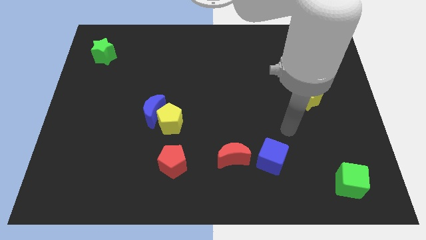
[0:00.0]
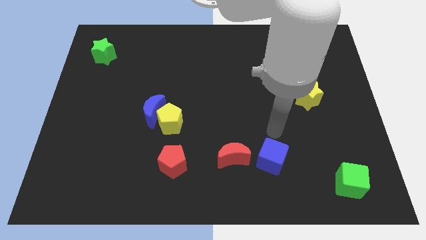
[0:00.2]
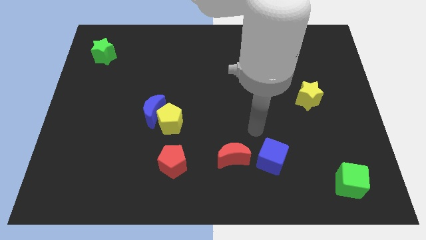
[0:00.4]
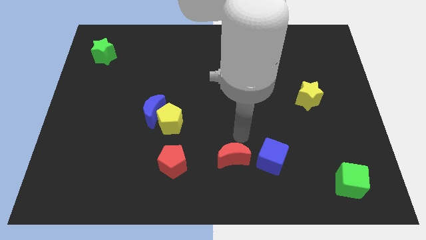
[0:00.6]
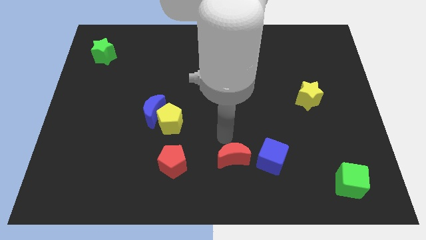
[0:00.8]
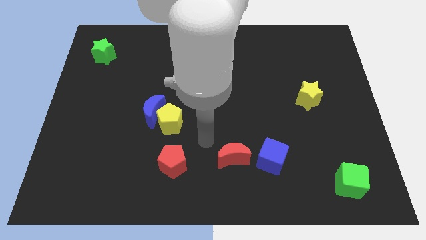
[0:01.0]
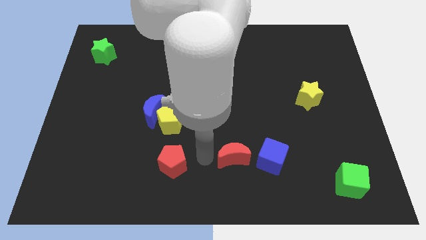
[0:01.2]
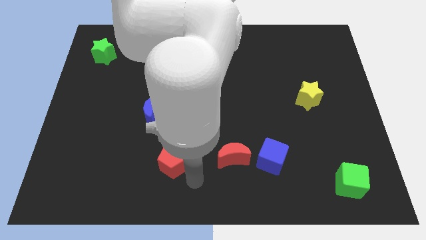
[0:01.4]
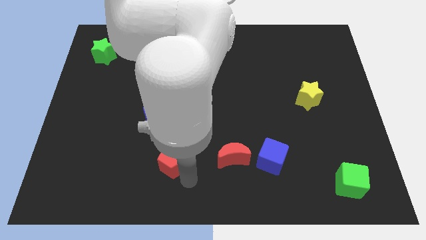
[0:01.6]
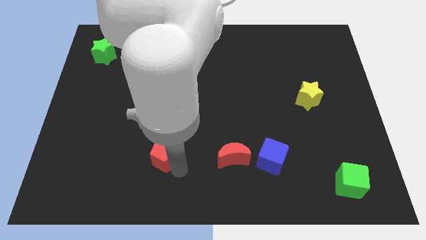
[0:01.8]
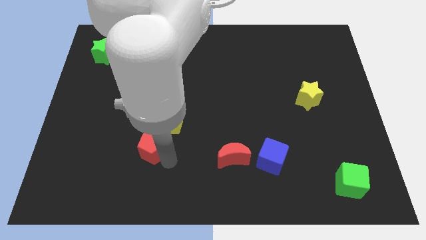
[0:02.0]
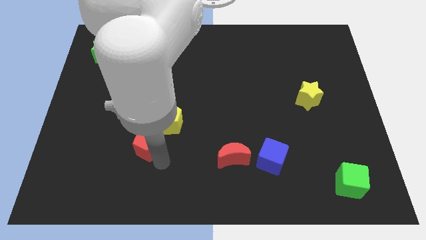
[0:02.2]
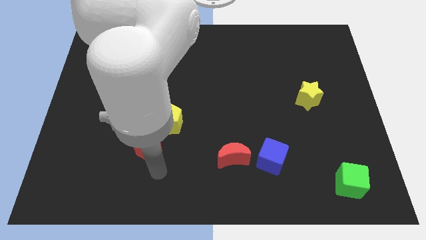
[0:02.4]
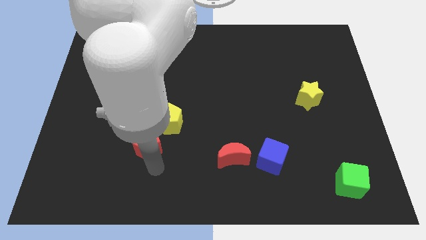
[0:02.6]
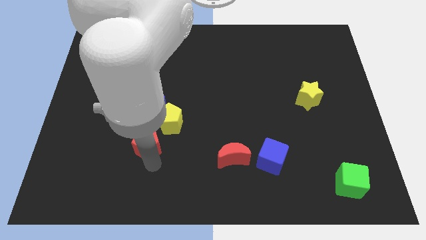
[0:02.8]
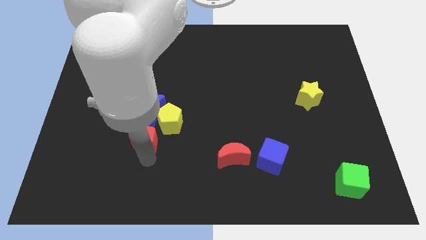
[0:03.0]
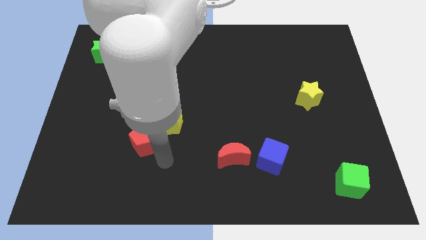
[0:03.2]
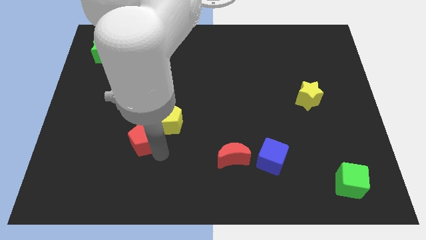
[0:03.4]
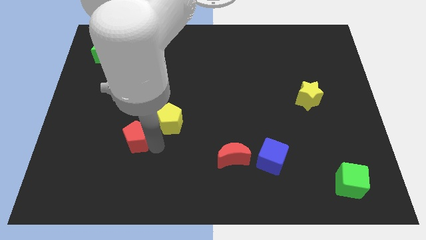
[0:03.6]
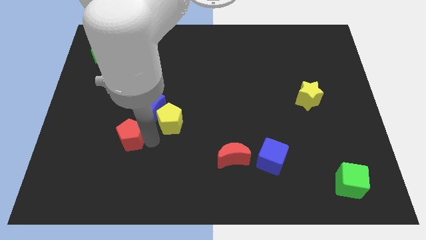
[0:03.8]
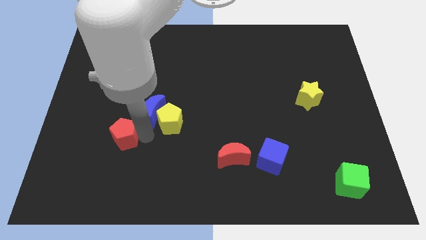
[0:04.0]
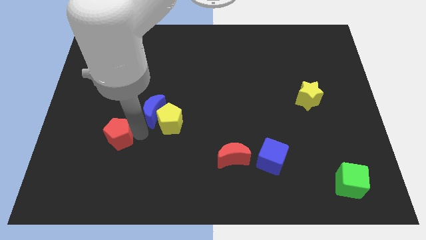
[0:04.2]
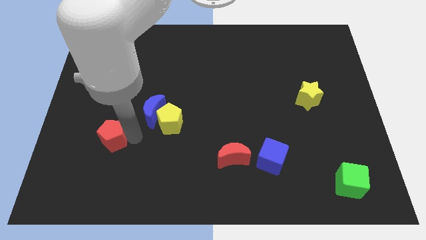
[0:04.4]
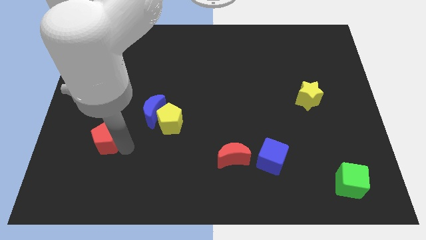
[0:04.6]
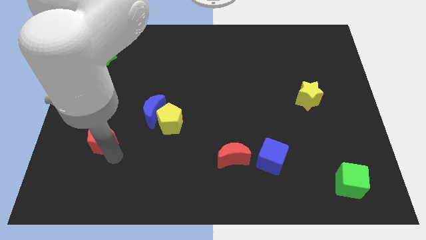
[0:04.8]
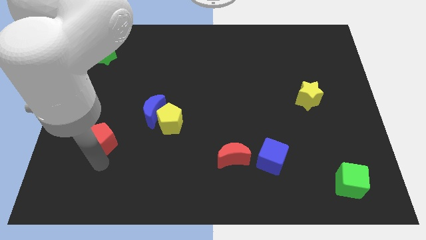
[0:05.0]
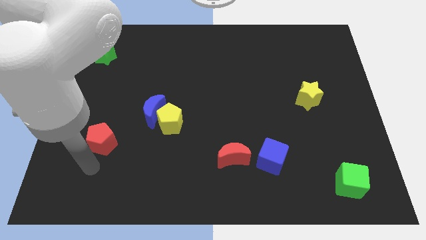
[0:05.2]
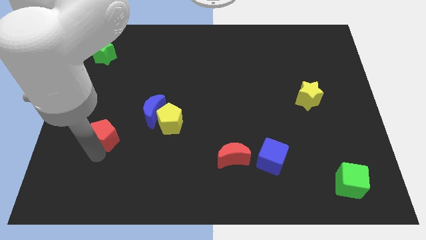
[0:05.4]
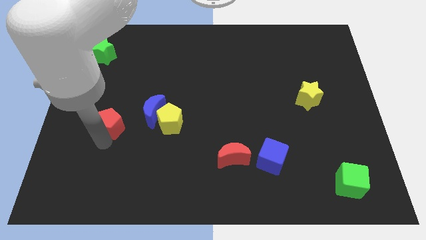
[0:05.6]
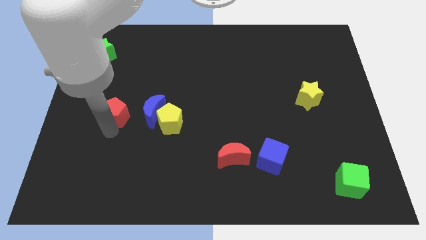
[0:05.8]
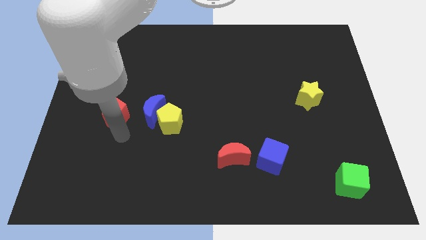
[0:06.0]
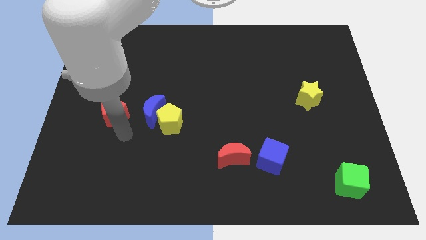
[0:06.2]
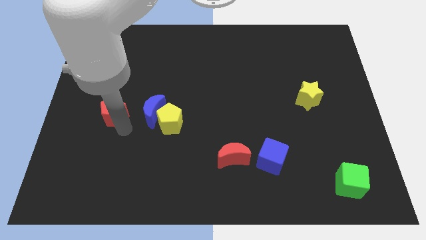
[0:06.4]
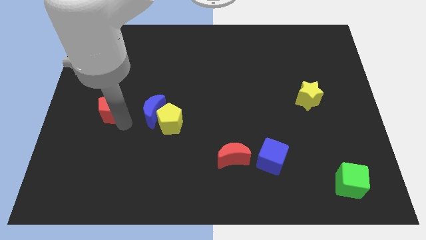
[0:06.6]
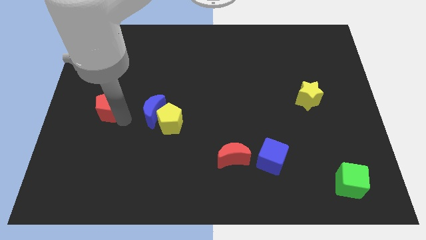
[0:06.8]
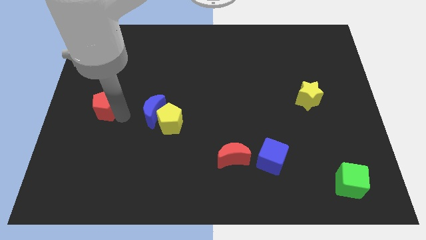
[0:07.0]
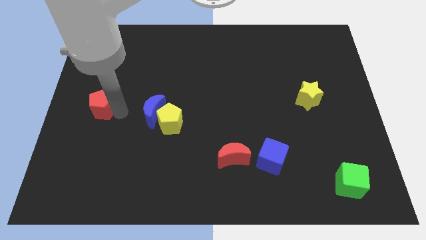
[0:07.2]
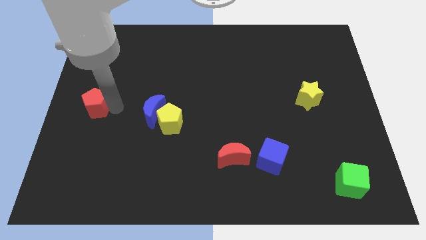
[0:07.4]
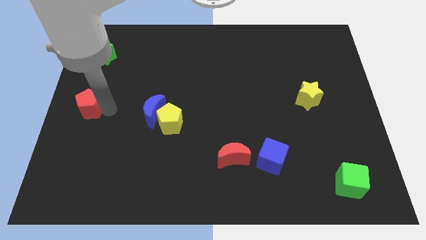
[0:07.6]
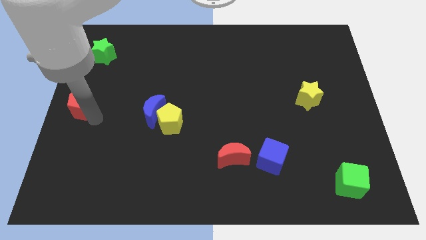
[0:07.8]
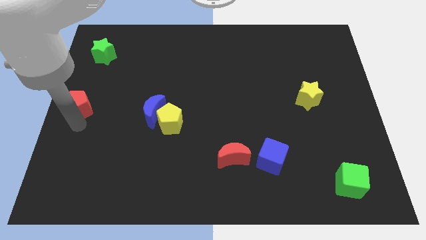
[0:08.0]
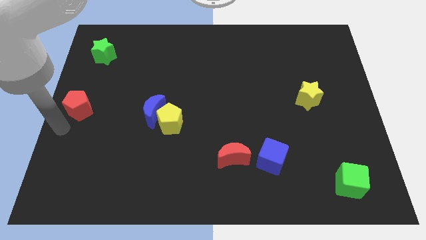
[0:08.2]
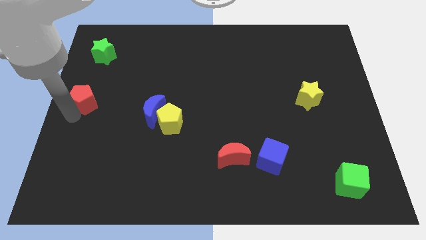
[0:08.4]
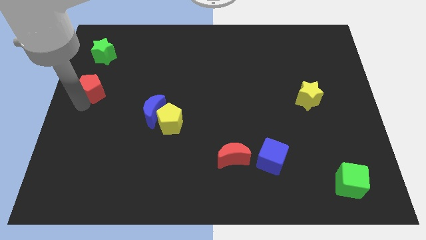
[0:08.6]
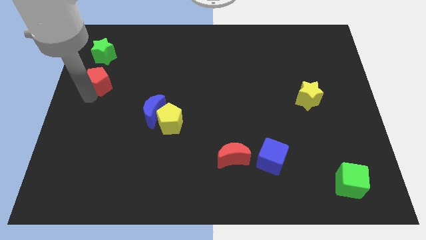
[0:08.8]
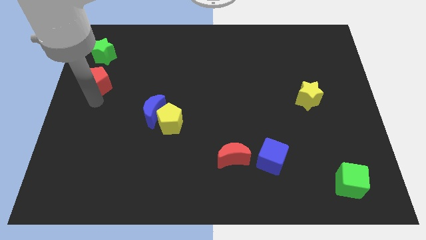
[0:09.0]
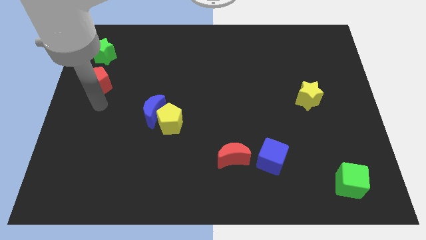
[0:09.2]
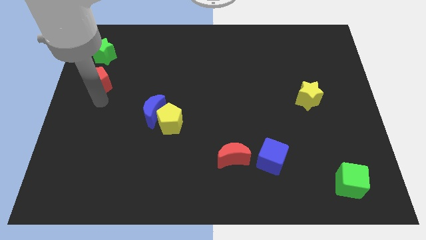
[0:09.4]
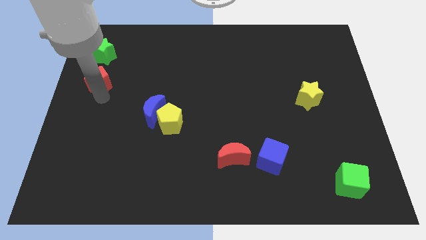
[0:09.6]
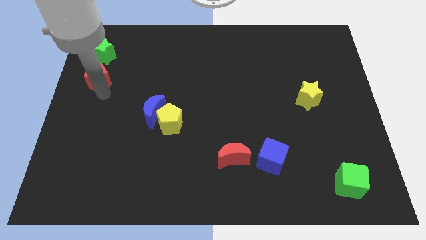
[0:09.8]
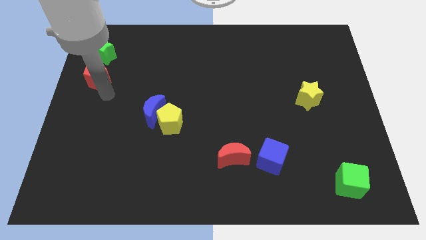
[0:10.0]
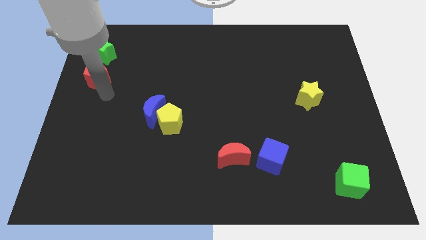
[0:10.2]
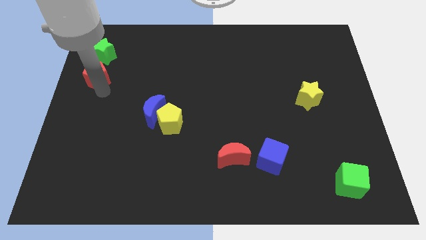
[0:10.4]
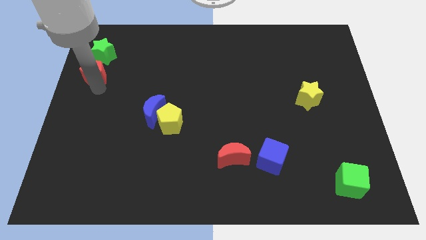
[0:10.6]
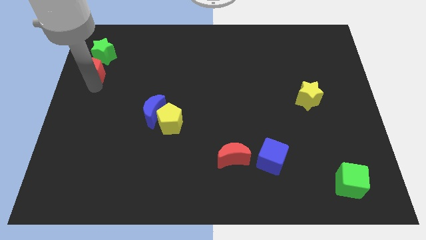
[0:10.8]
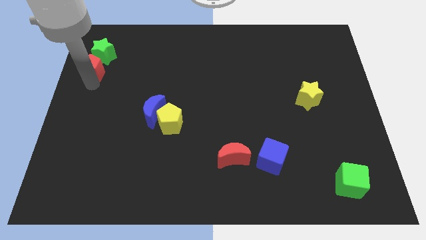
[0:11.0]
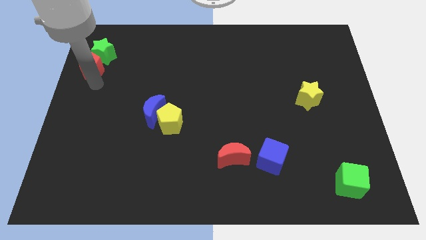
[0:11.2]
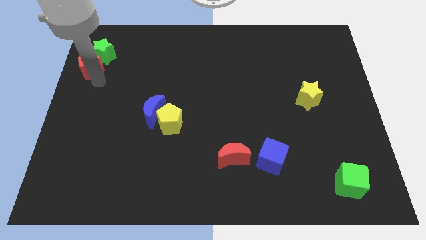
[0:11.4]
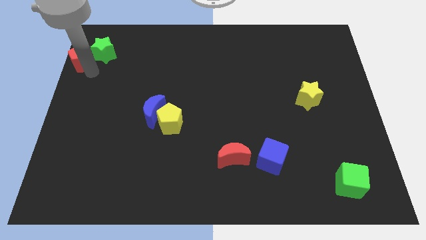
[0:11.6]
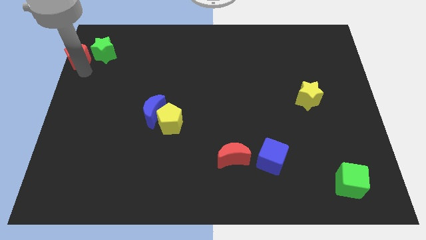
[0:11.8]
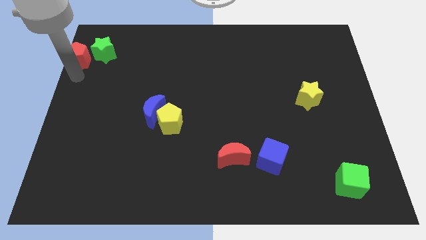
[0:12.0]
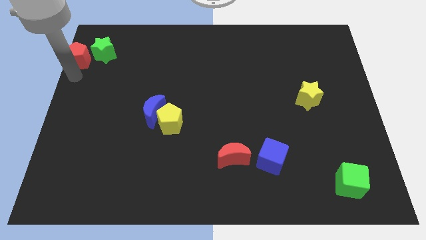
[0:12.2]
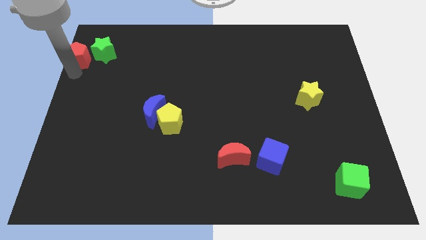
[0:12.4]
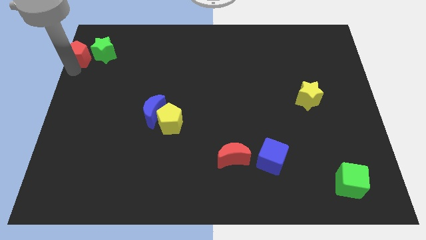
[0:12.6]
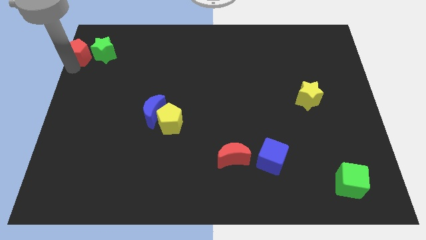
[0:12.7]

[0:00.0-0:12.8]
push the red pentagon to the upper left corner
